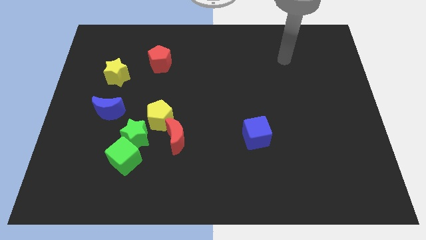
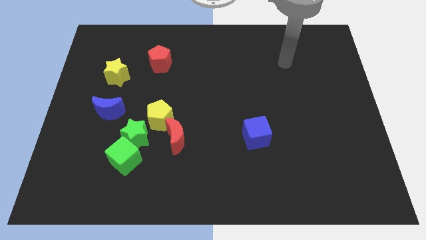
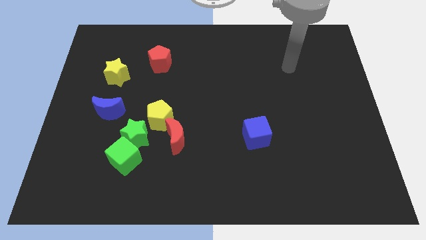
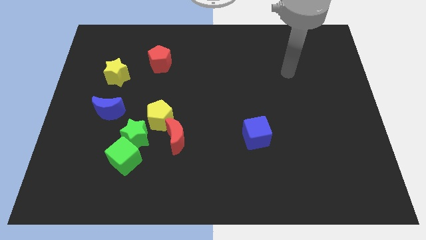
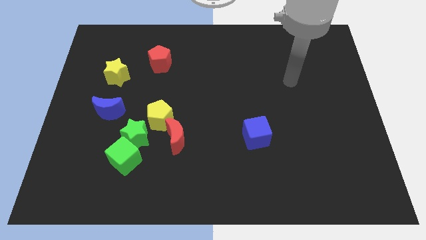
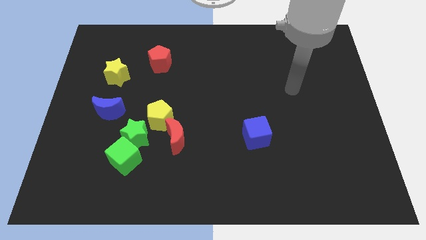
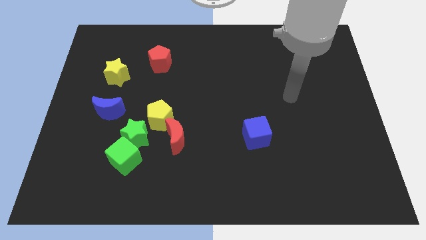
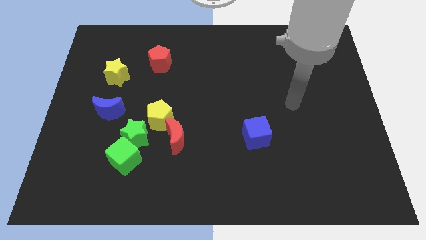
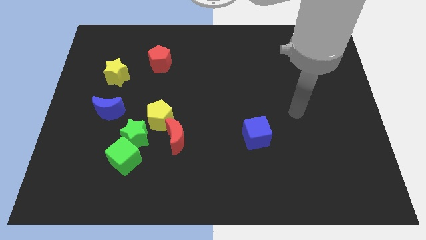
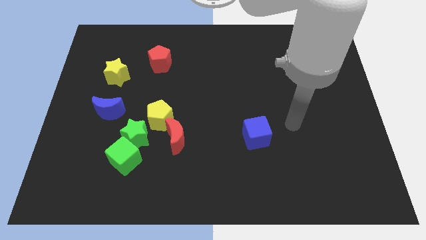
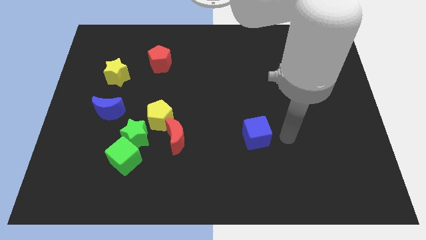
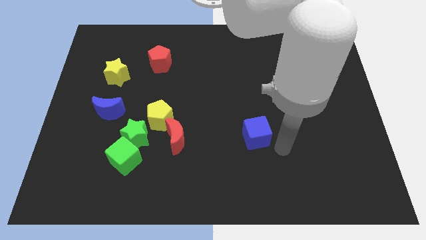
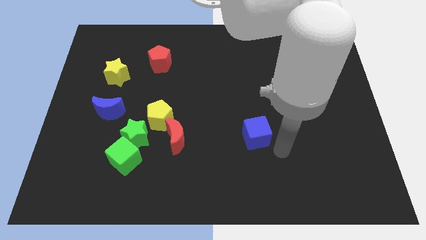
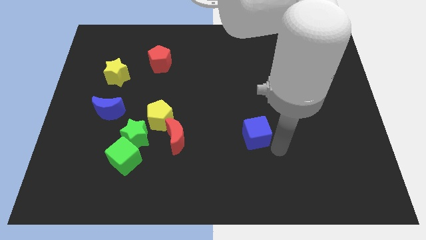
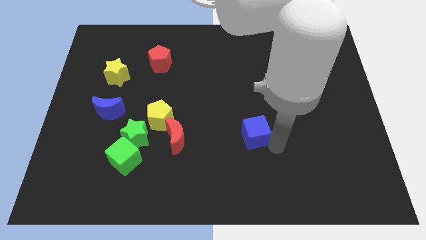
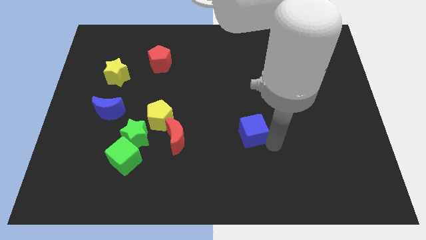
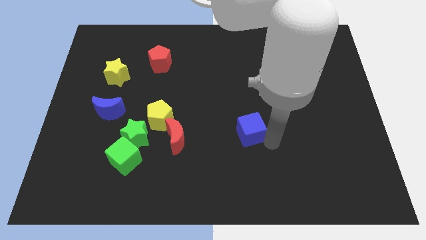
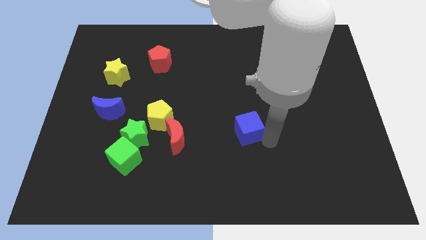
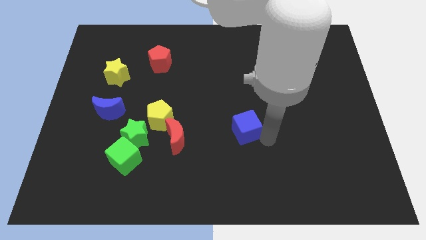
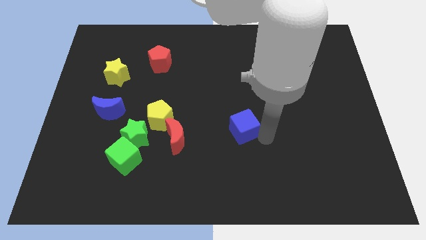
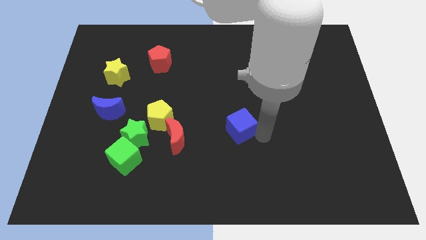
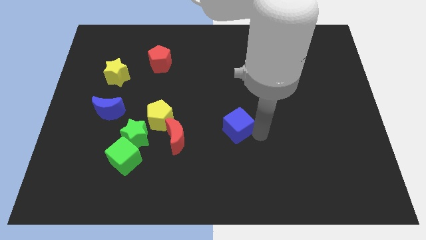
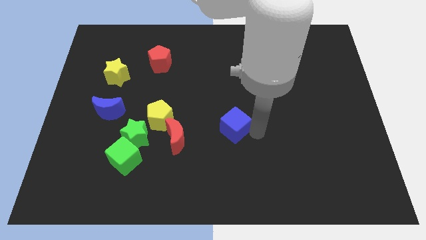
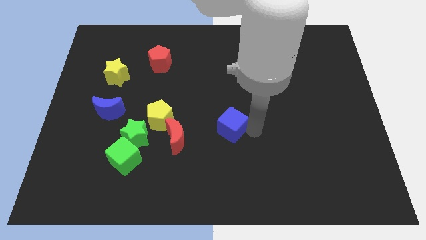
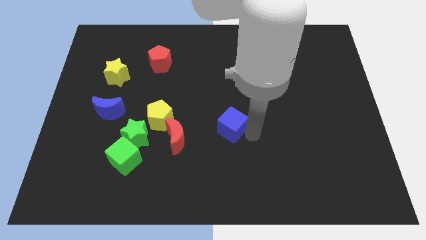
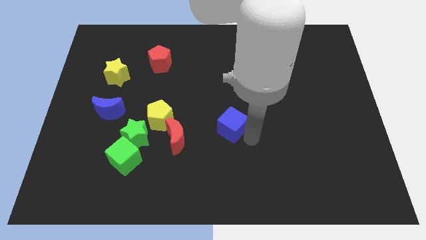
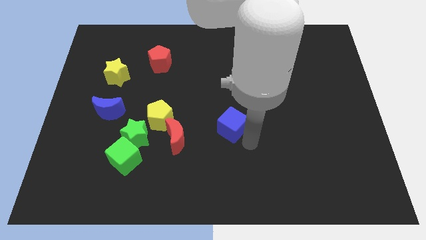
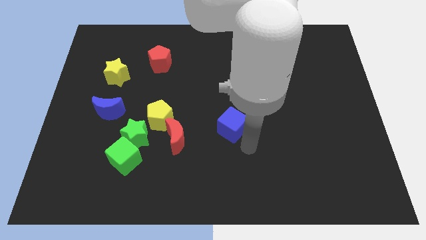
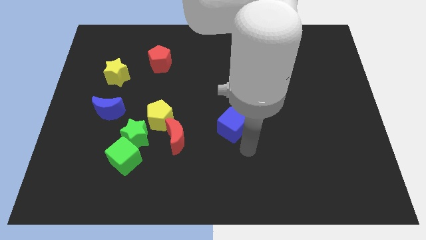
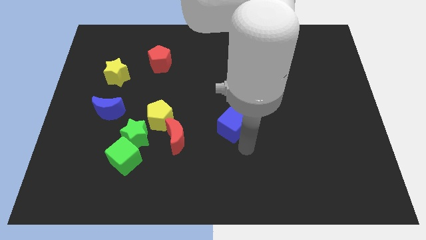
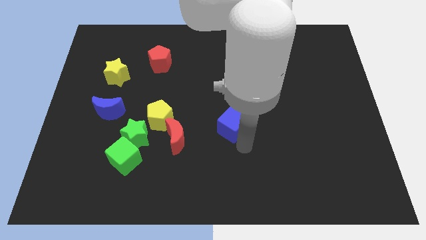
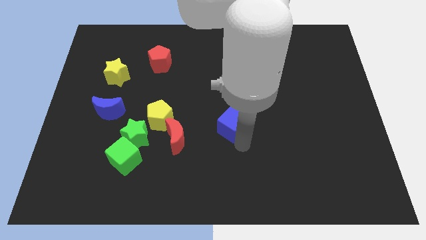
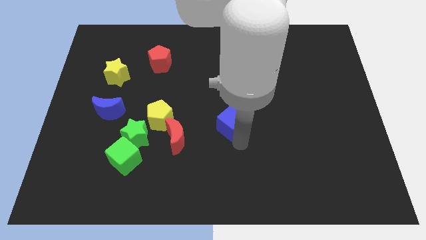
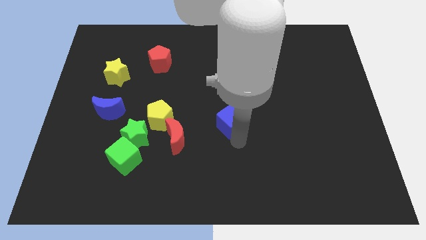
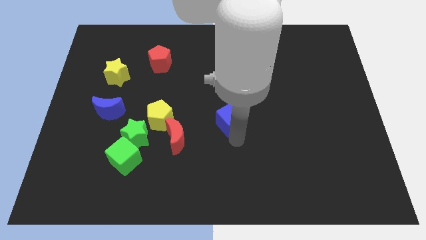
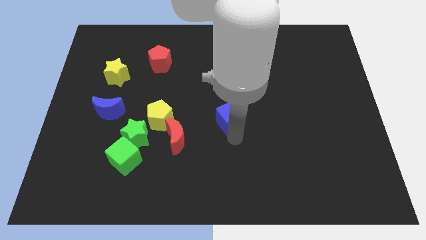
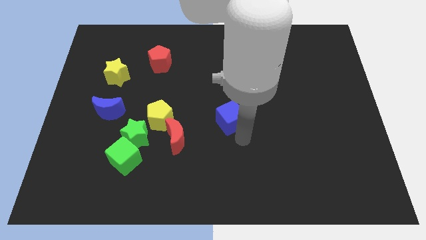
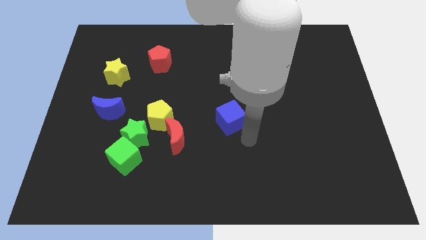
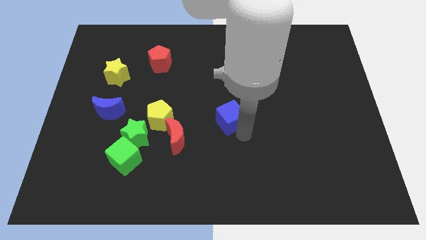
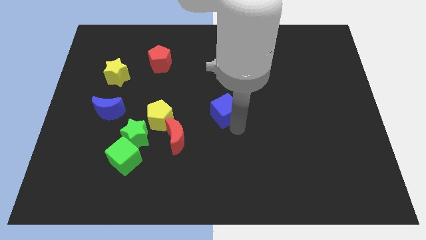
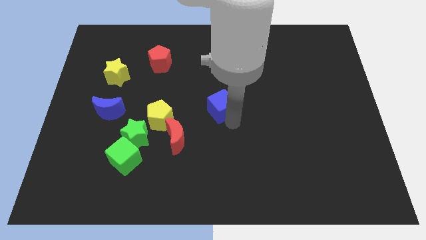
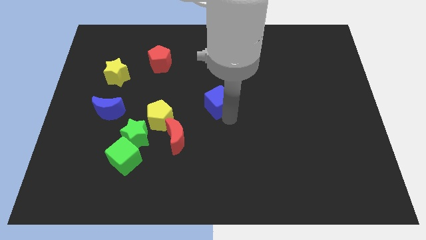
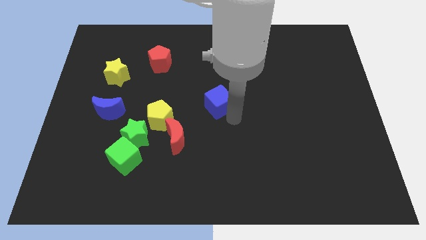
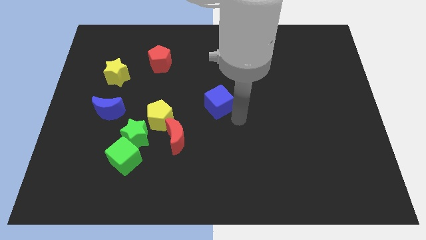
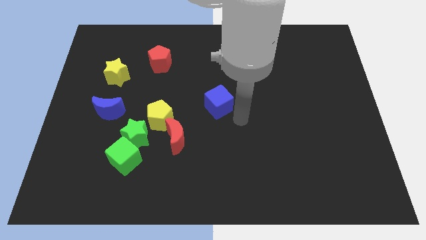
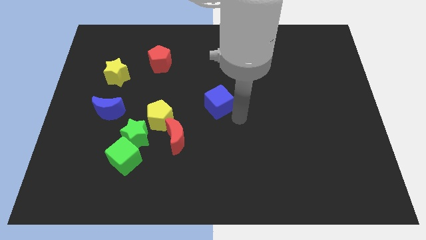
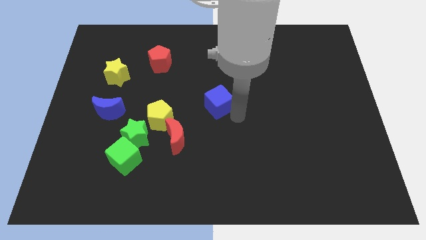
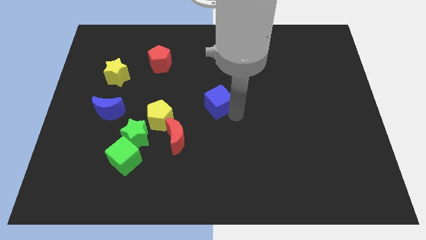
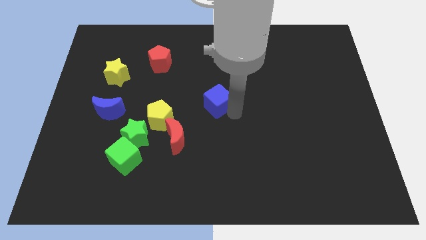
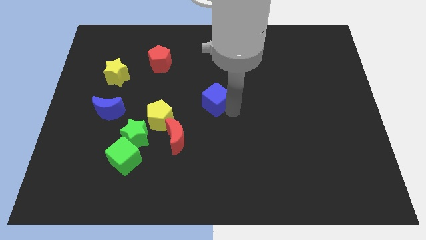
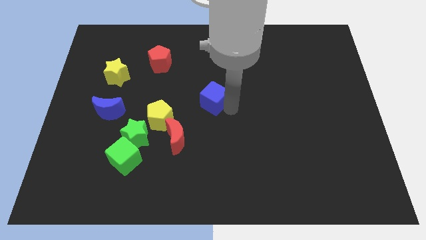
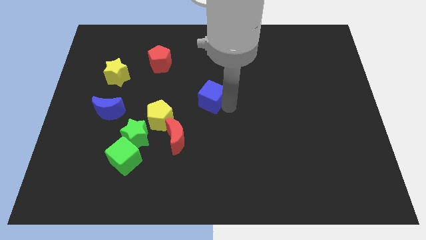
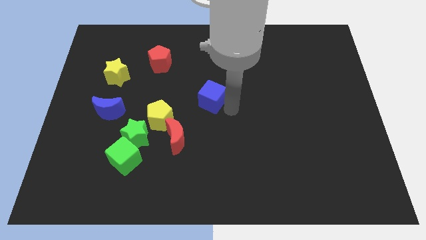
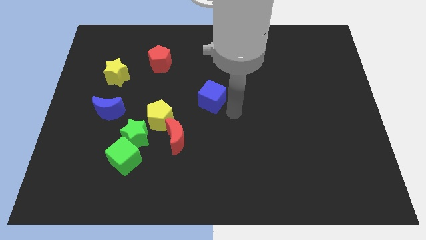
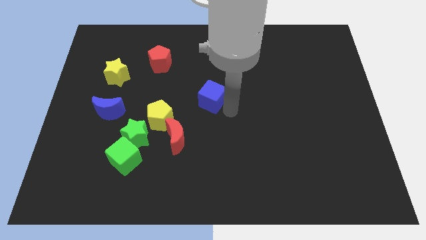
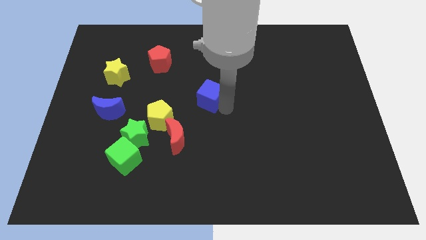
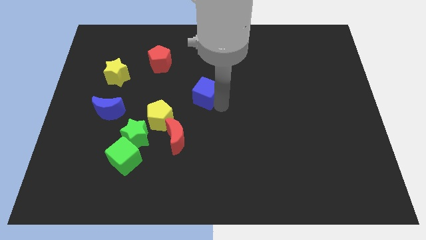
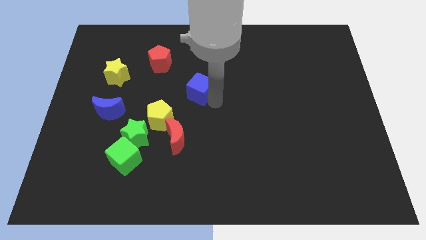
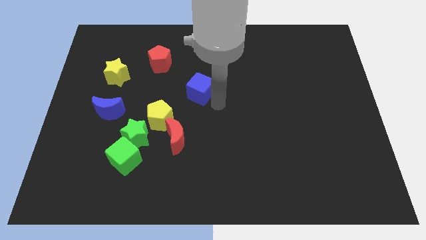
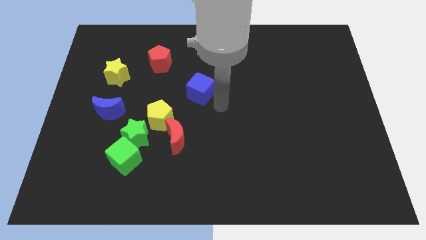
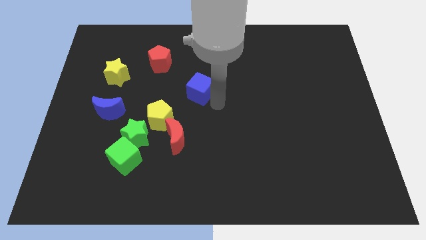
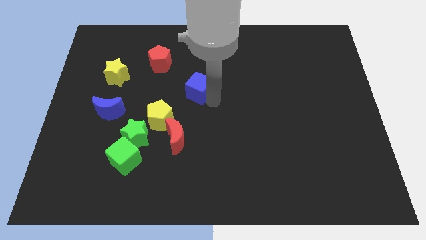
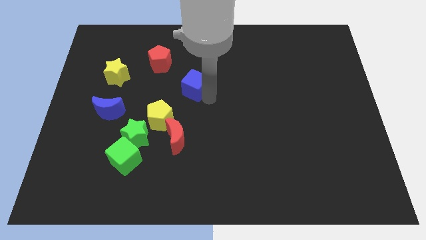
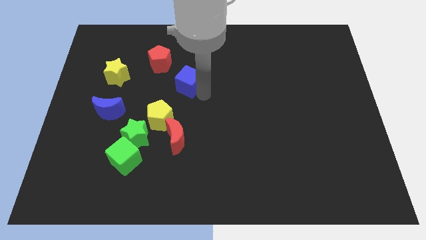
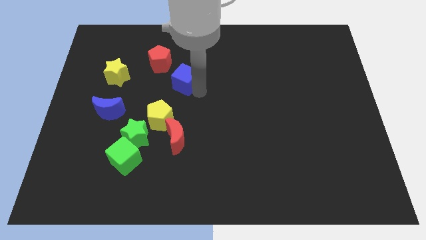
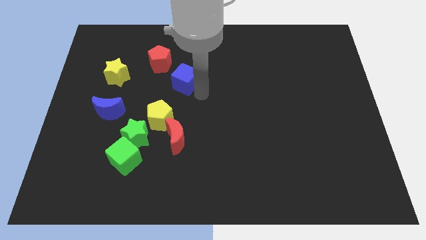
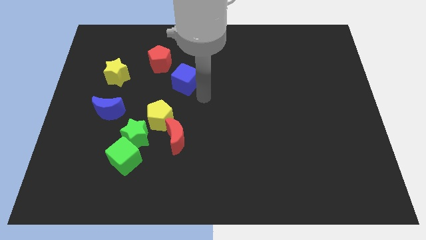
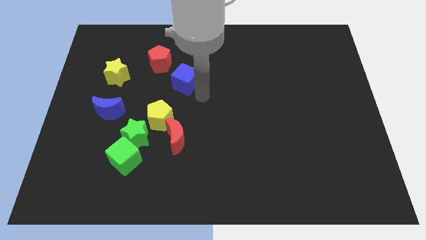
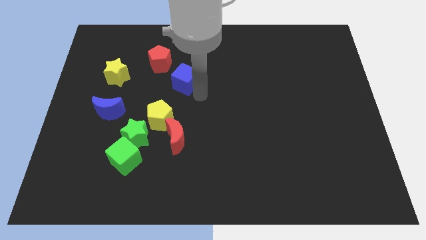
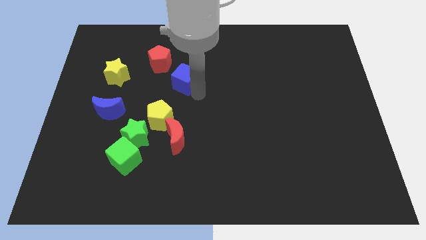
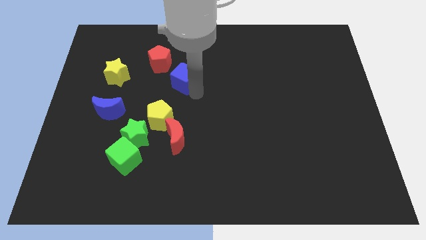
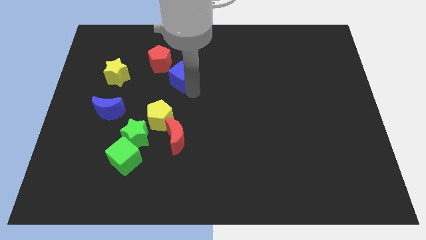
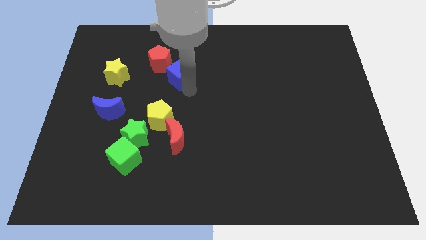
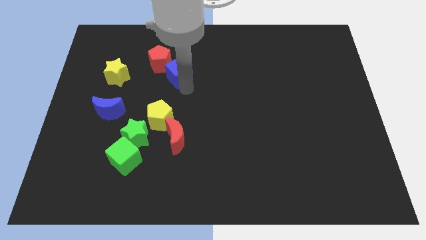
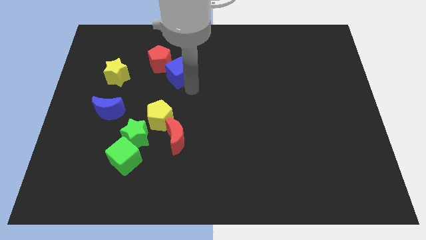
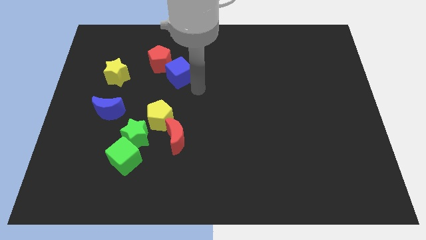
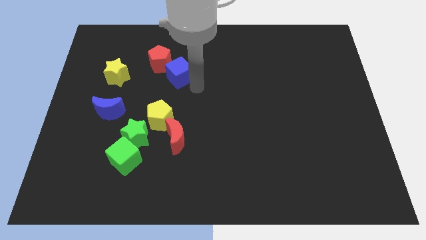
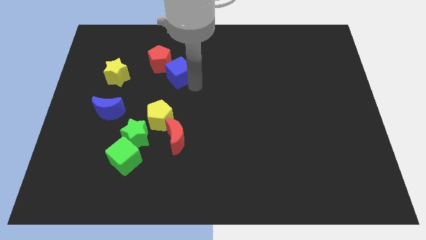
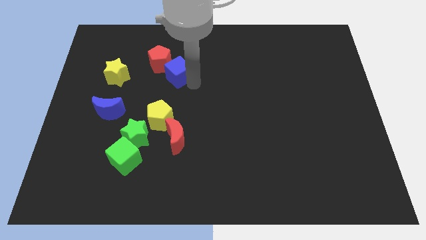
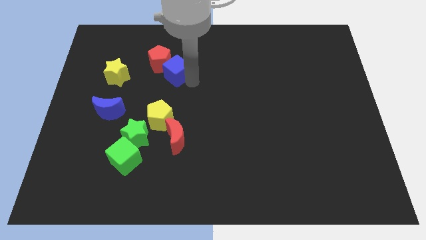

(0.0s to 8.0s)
slide the blue cube towards the red pentagon
